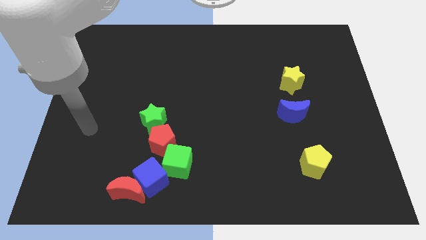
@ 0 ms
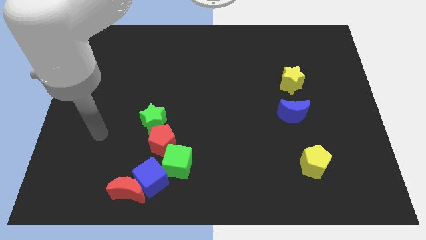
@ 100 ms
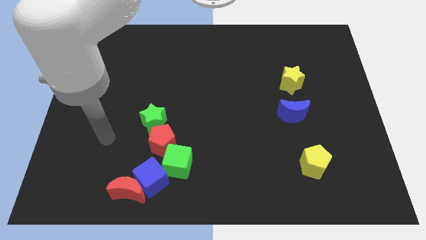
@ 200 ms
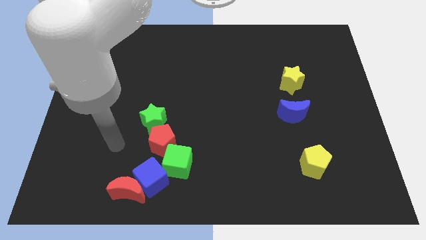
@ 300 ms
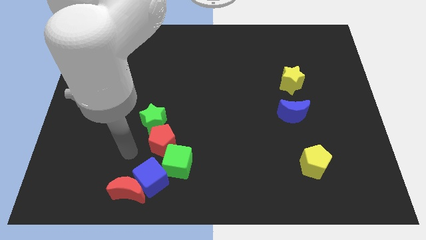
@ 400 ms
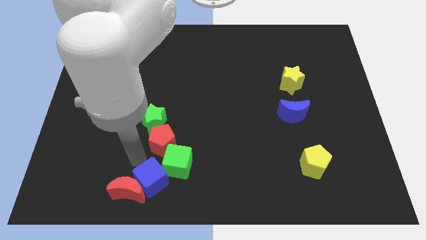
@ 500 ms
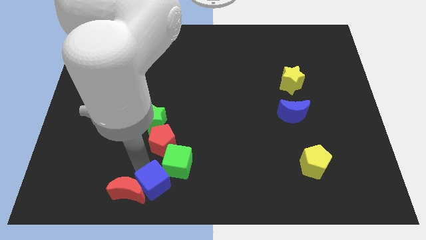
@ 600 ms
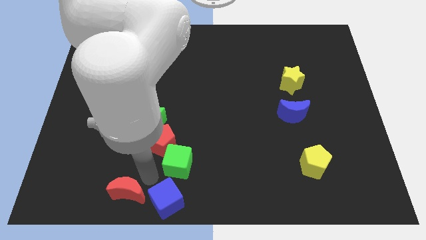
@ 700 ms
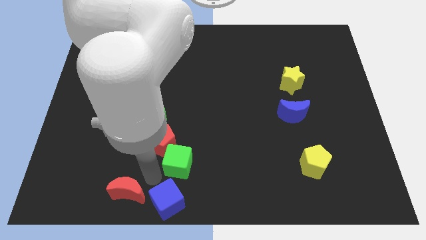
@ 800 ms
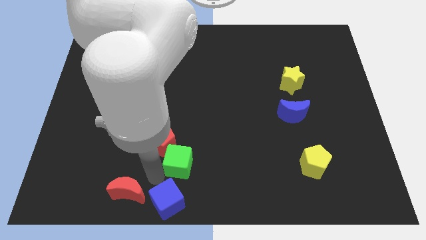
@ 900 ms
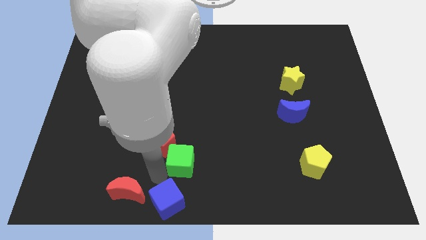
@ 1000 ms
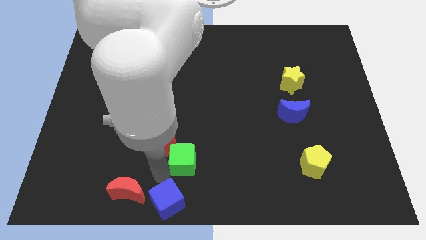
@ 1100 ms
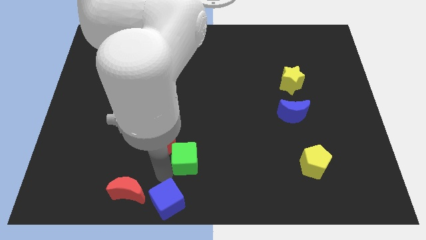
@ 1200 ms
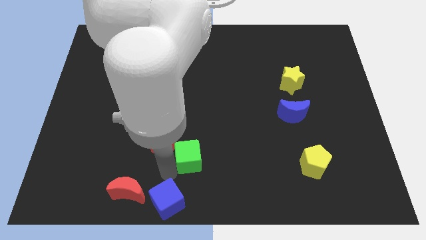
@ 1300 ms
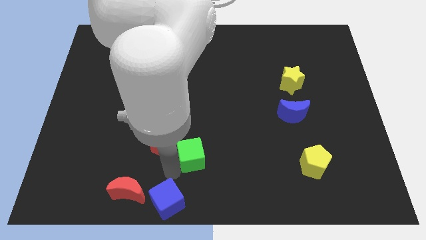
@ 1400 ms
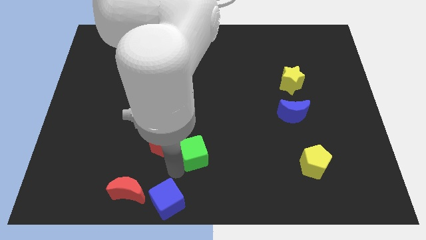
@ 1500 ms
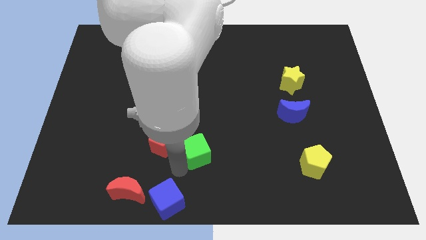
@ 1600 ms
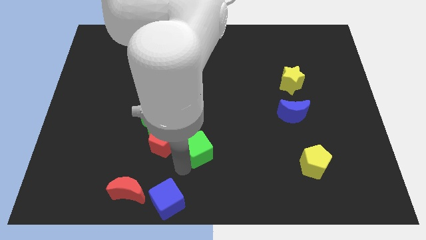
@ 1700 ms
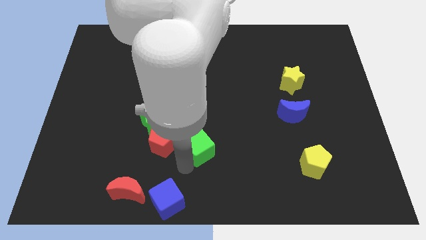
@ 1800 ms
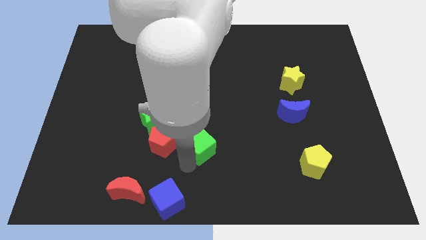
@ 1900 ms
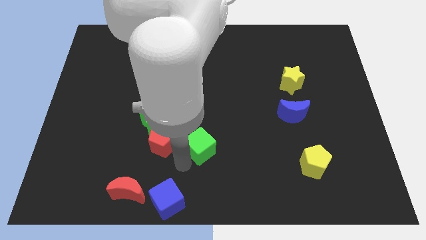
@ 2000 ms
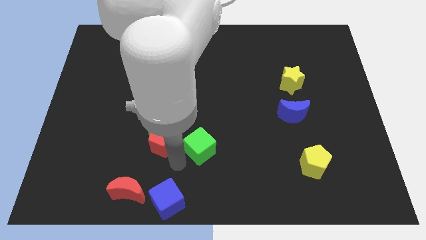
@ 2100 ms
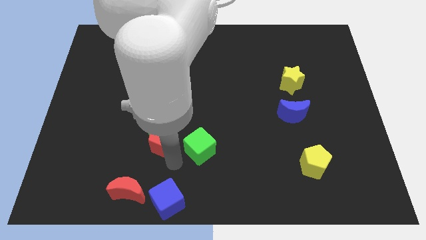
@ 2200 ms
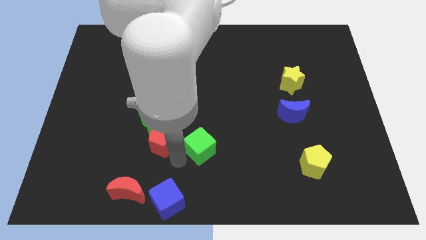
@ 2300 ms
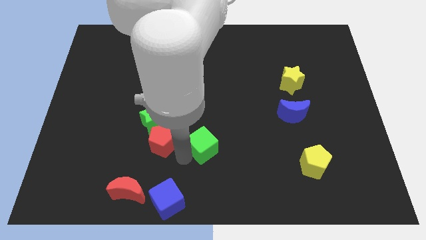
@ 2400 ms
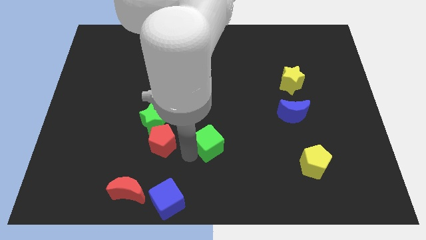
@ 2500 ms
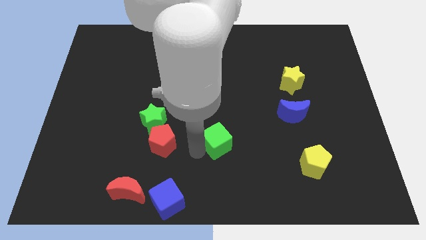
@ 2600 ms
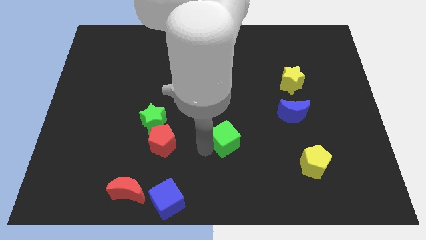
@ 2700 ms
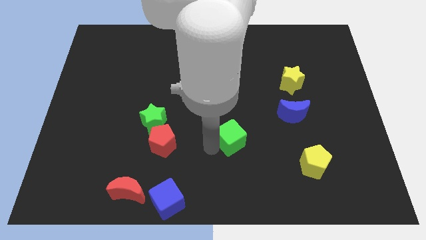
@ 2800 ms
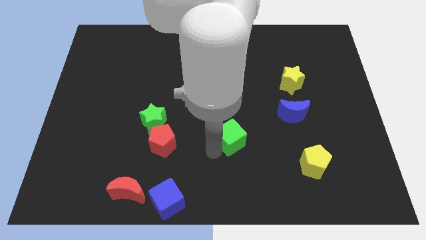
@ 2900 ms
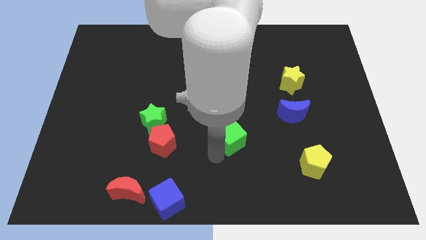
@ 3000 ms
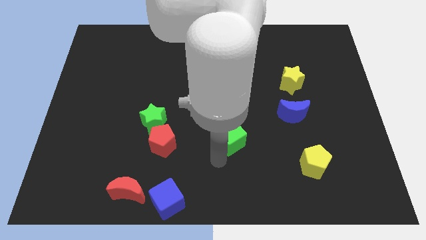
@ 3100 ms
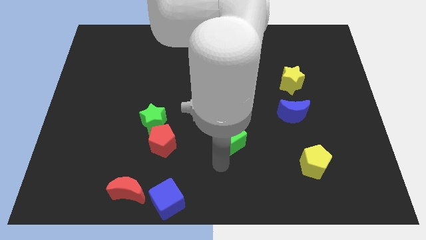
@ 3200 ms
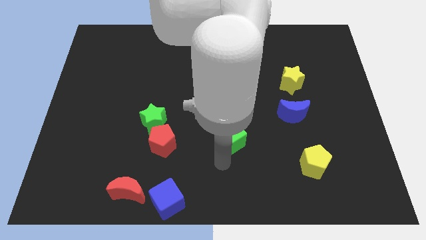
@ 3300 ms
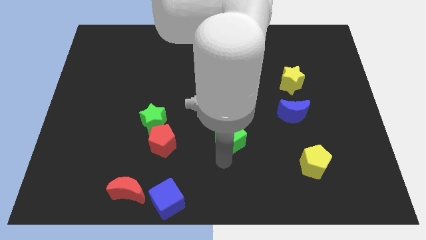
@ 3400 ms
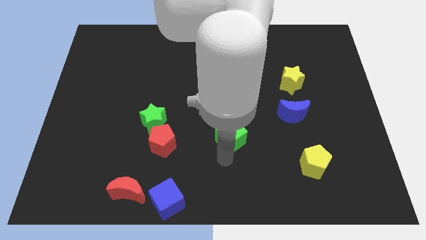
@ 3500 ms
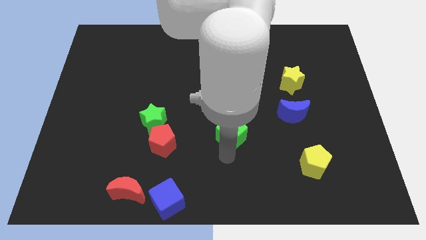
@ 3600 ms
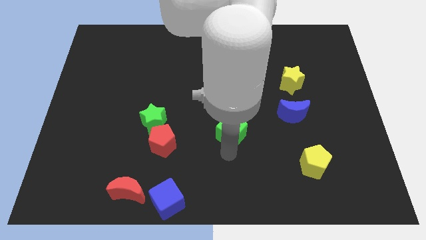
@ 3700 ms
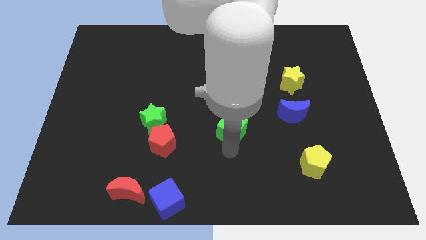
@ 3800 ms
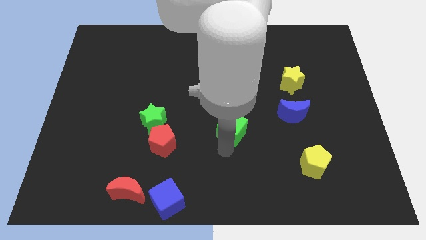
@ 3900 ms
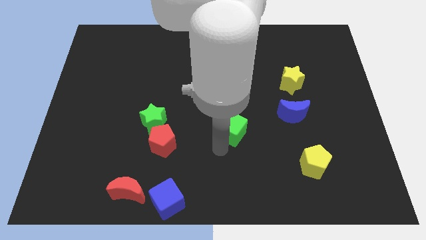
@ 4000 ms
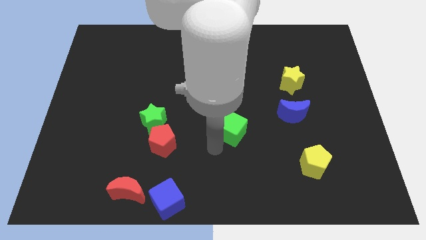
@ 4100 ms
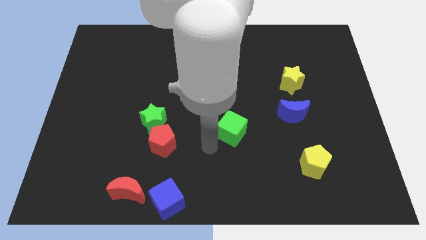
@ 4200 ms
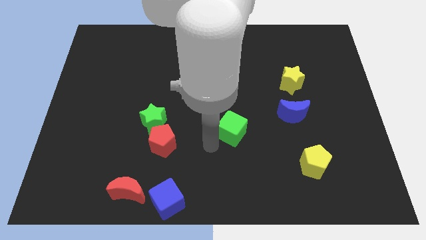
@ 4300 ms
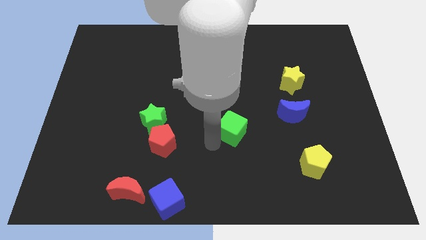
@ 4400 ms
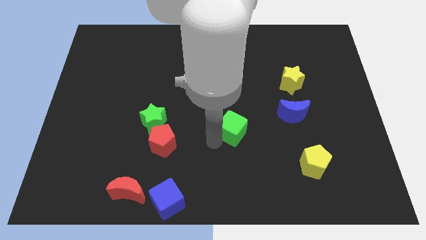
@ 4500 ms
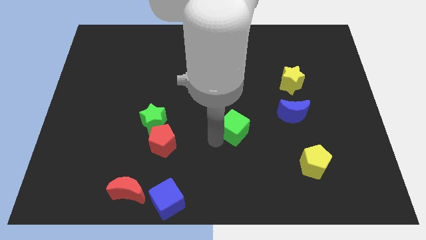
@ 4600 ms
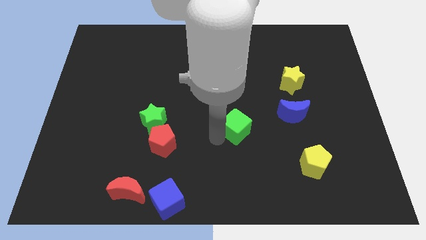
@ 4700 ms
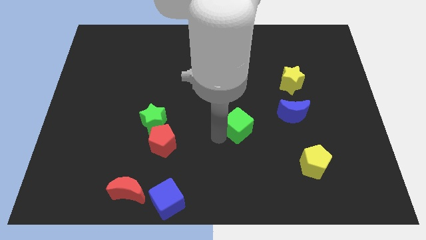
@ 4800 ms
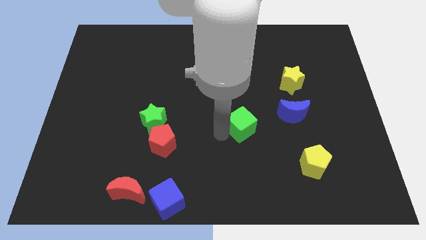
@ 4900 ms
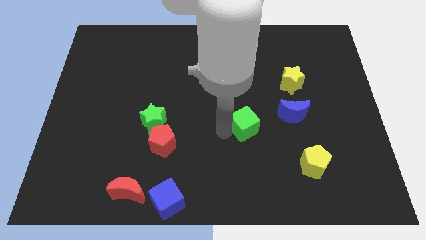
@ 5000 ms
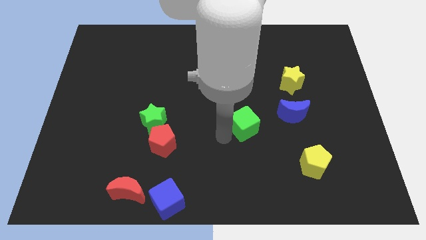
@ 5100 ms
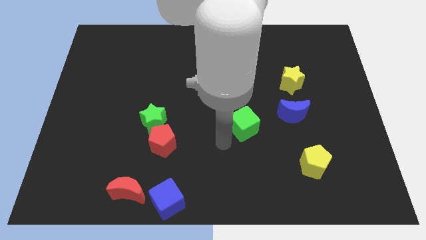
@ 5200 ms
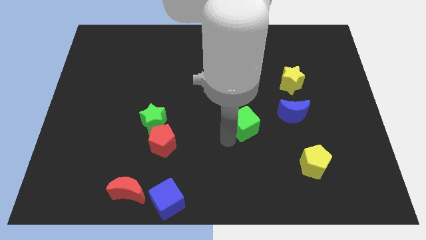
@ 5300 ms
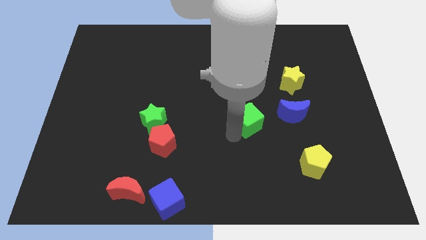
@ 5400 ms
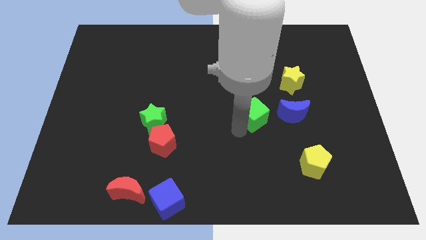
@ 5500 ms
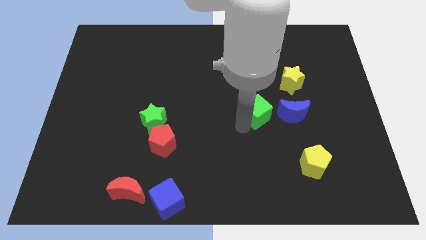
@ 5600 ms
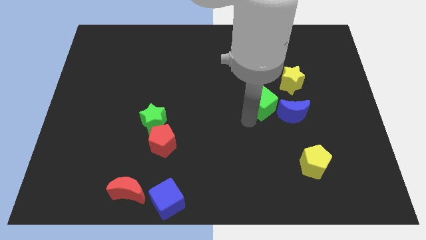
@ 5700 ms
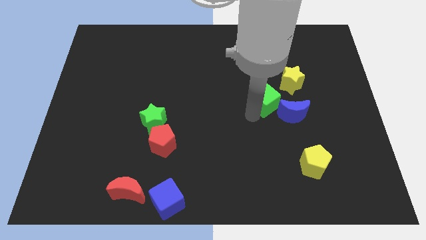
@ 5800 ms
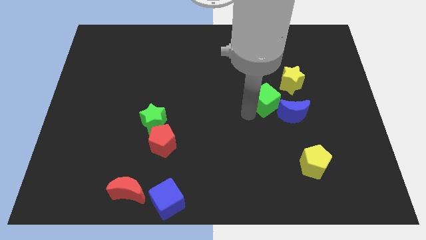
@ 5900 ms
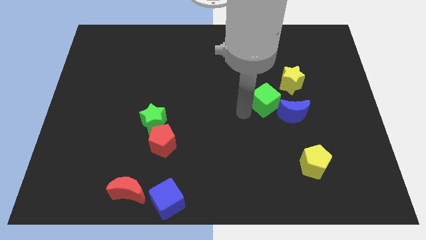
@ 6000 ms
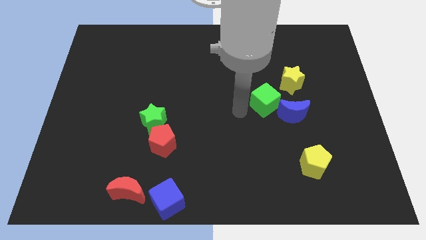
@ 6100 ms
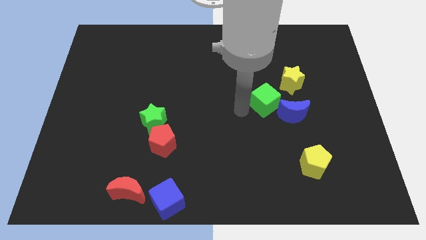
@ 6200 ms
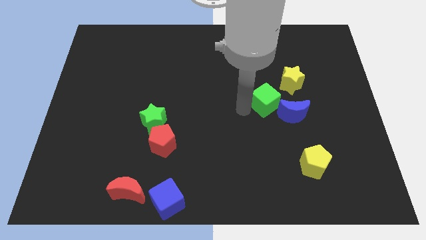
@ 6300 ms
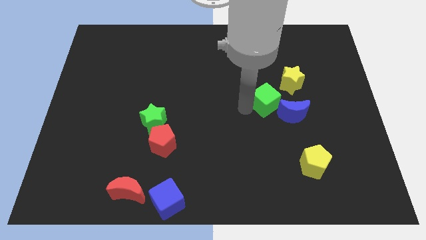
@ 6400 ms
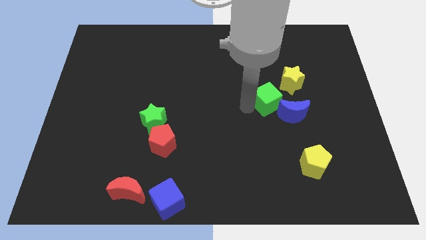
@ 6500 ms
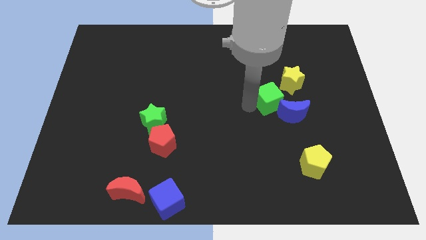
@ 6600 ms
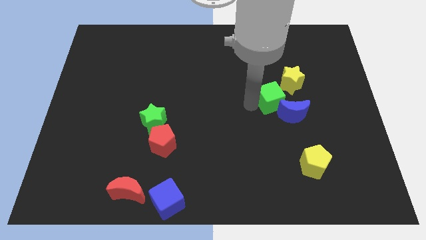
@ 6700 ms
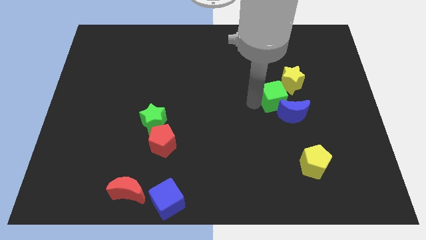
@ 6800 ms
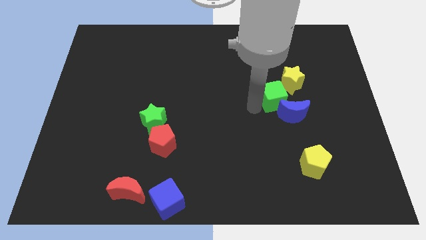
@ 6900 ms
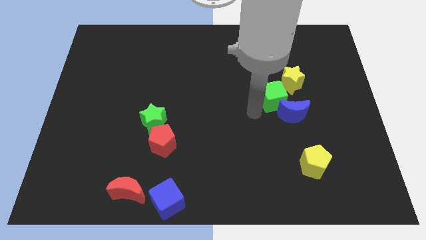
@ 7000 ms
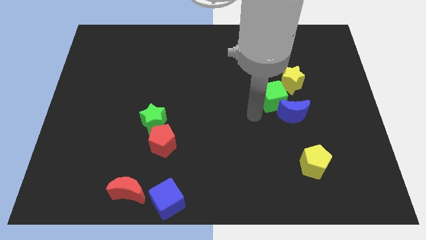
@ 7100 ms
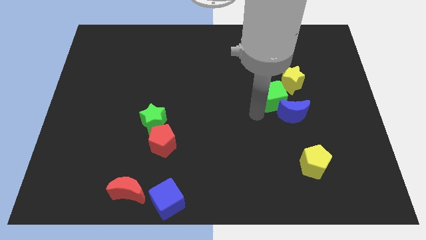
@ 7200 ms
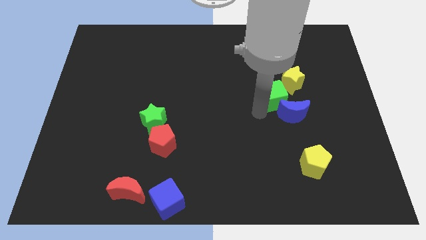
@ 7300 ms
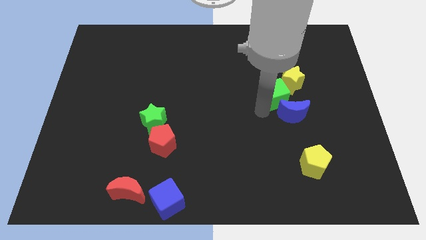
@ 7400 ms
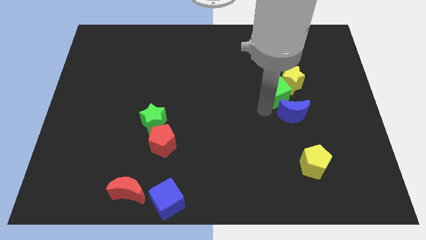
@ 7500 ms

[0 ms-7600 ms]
move the green cube to the yellow star
